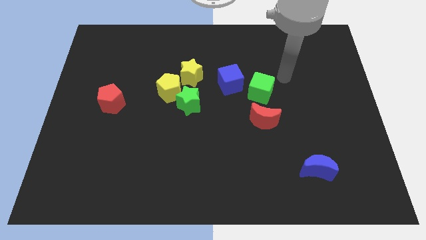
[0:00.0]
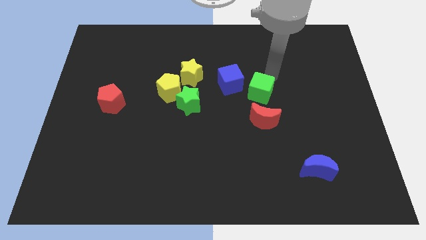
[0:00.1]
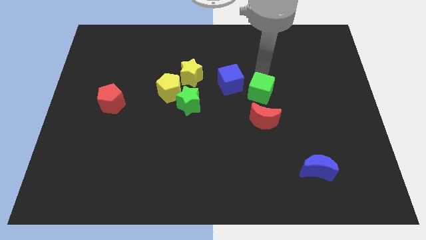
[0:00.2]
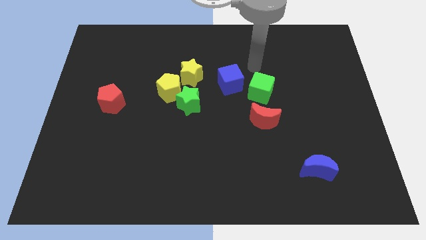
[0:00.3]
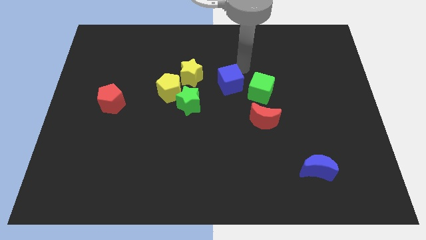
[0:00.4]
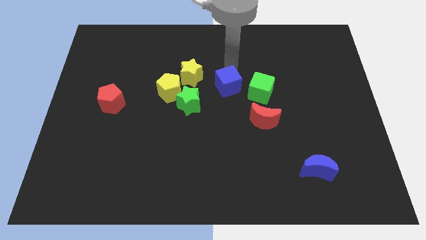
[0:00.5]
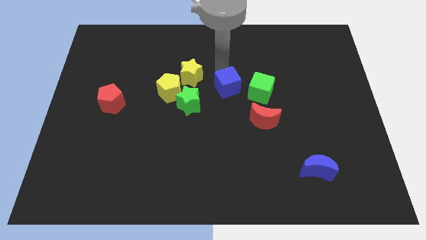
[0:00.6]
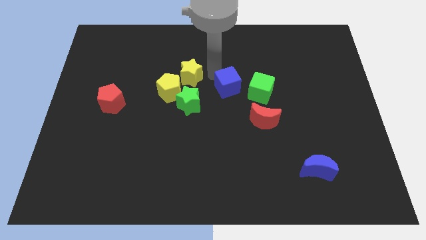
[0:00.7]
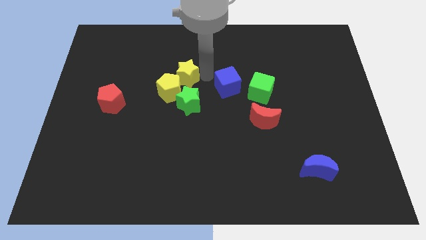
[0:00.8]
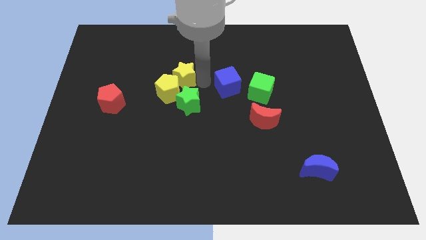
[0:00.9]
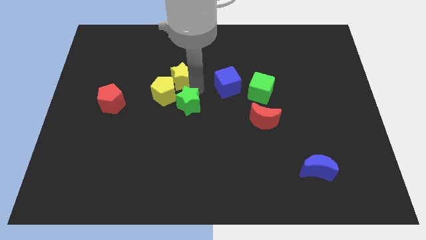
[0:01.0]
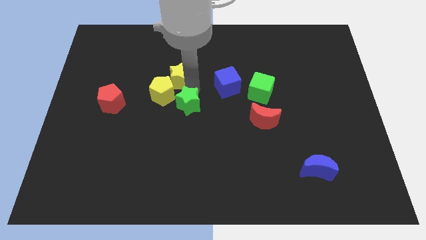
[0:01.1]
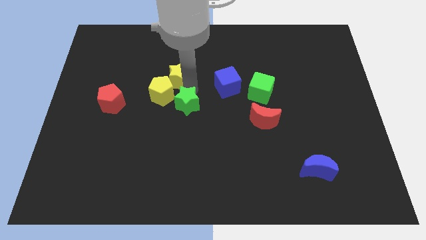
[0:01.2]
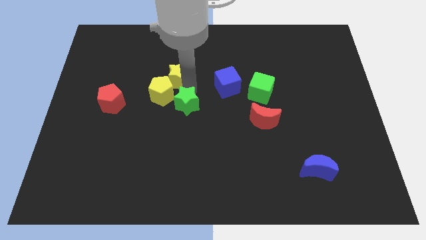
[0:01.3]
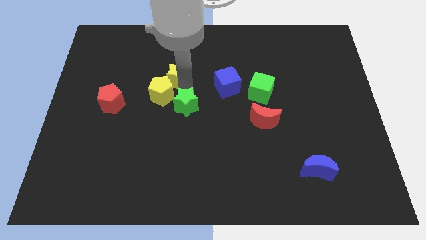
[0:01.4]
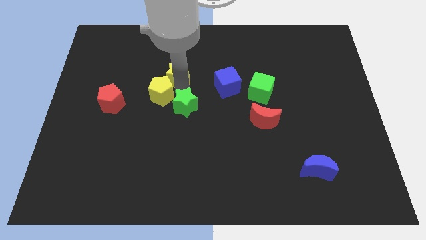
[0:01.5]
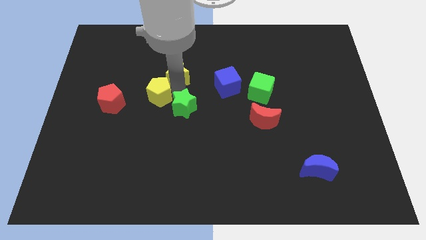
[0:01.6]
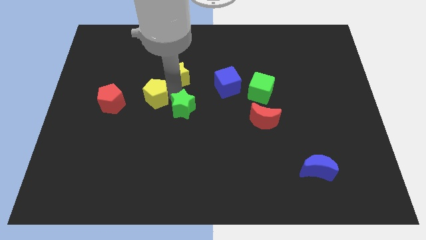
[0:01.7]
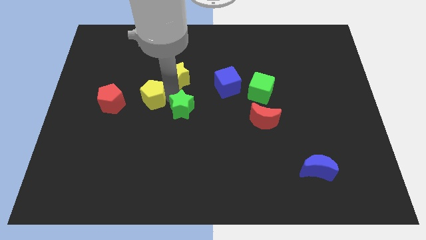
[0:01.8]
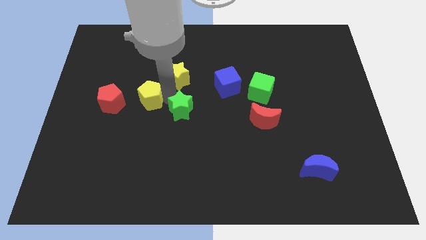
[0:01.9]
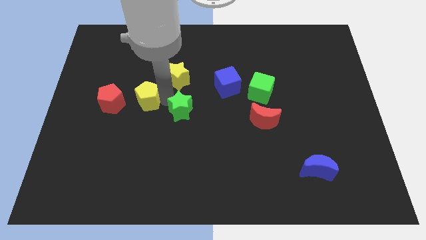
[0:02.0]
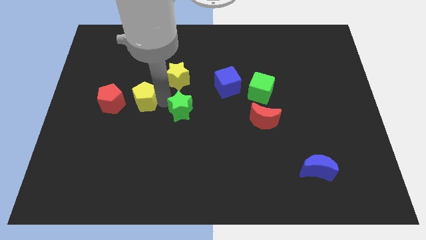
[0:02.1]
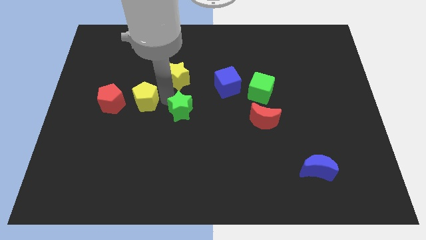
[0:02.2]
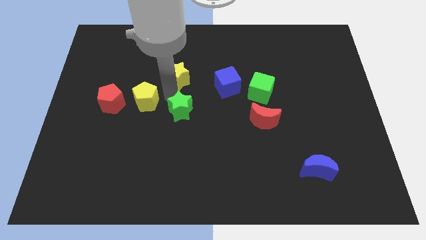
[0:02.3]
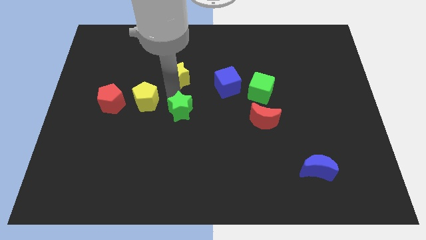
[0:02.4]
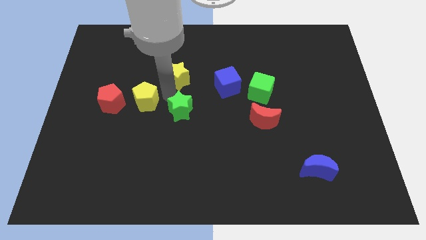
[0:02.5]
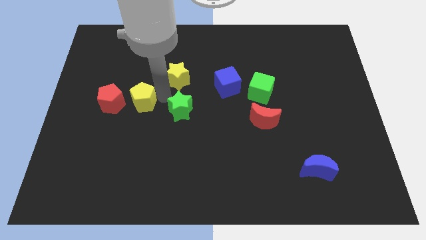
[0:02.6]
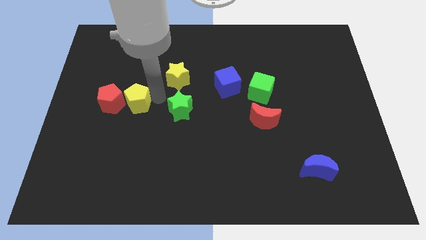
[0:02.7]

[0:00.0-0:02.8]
pull the yellow pentagon apart from the green star and yellow star

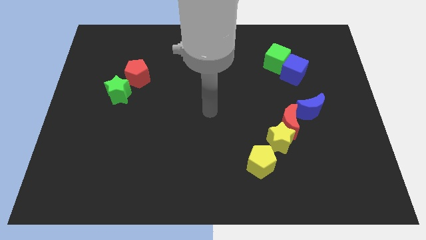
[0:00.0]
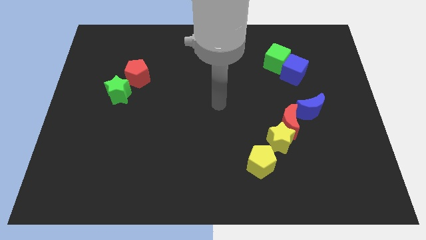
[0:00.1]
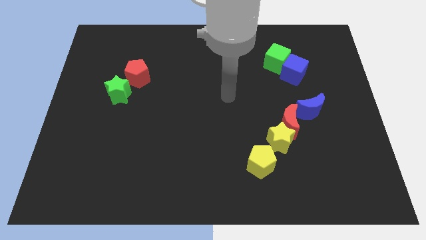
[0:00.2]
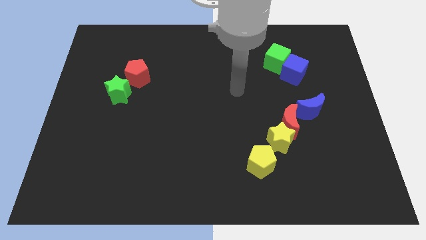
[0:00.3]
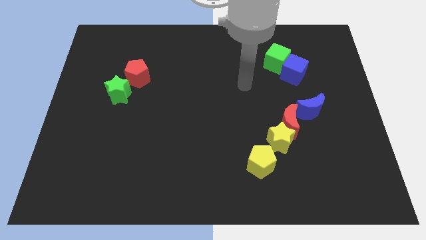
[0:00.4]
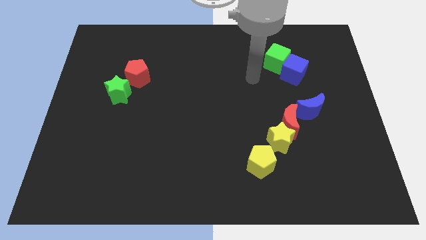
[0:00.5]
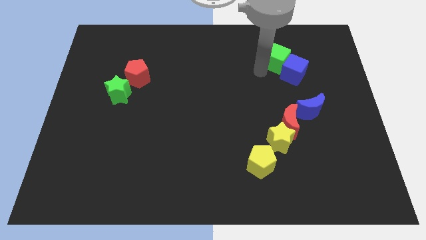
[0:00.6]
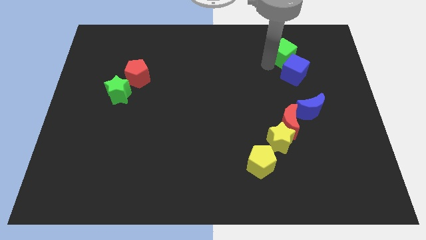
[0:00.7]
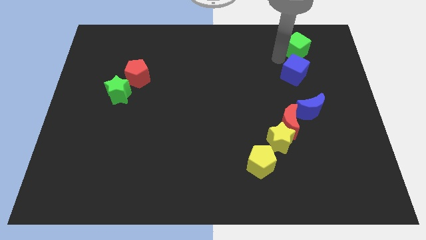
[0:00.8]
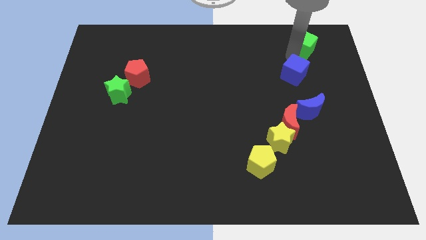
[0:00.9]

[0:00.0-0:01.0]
separate the blue cube from the green cube

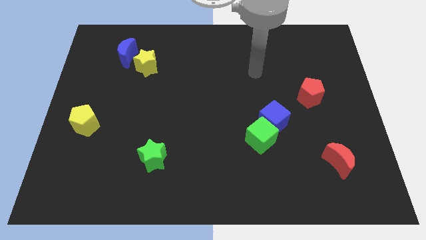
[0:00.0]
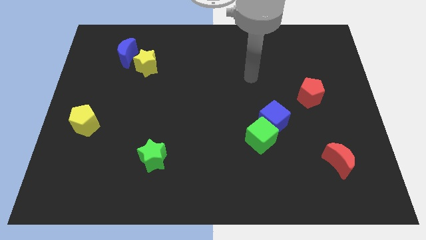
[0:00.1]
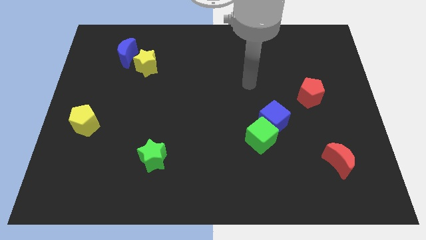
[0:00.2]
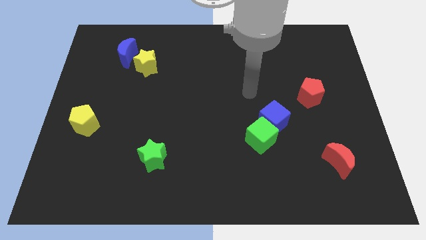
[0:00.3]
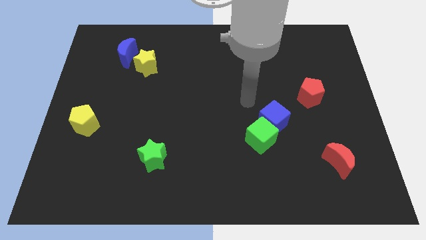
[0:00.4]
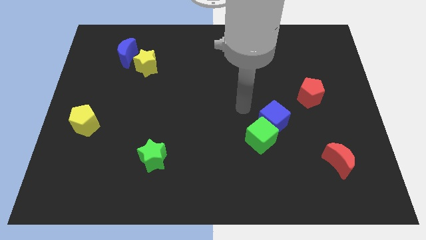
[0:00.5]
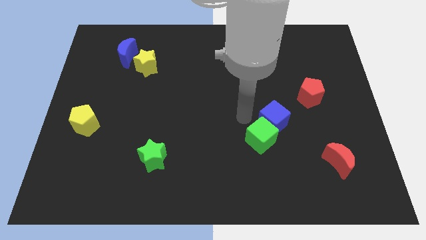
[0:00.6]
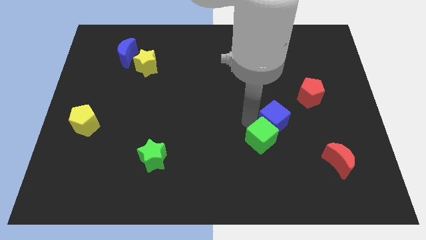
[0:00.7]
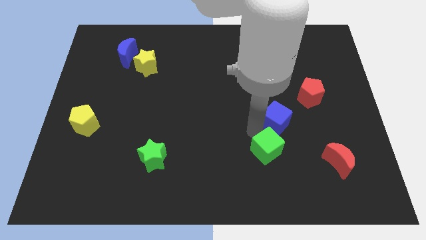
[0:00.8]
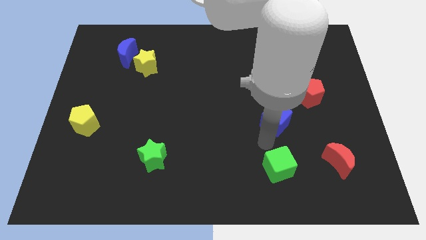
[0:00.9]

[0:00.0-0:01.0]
pull the blue cube apart from the green cube

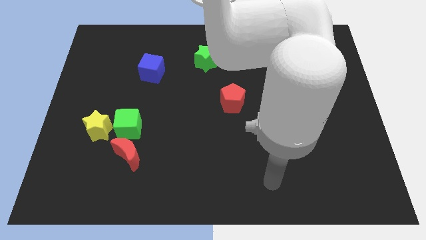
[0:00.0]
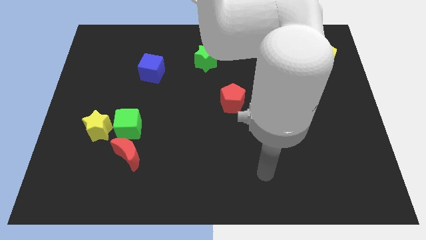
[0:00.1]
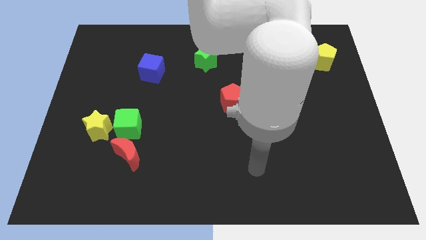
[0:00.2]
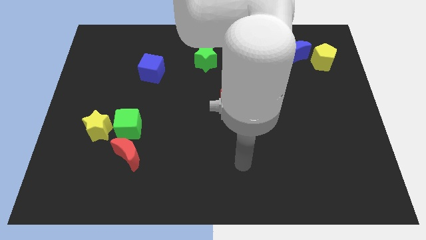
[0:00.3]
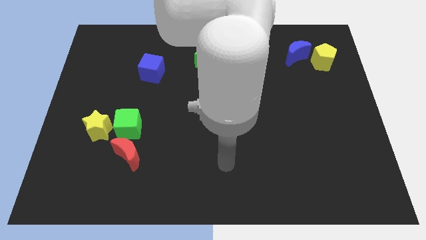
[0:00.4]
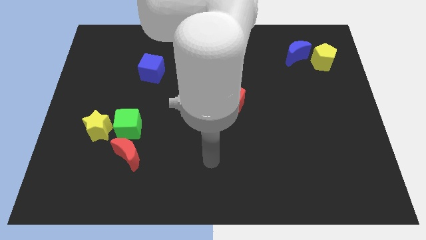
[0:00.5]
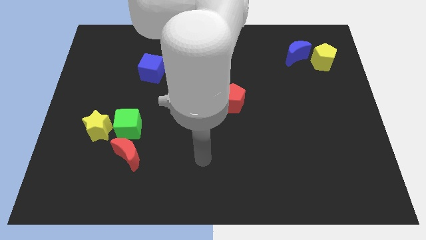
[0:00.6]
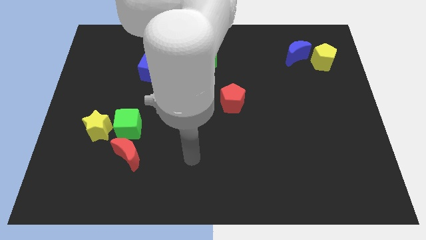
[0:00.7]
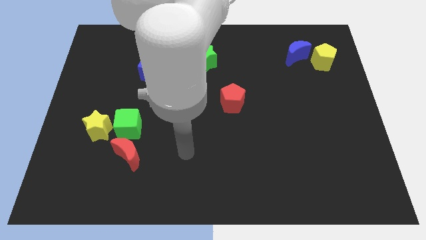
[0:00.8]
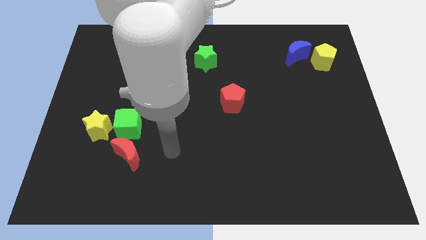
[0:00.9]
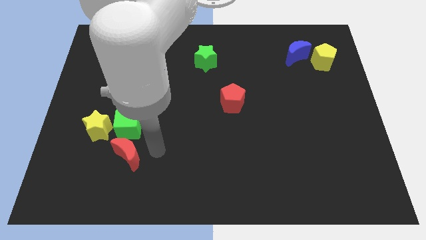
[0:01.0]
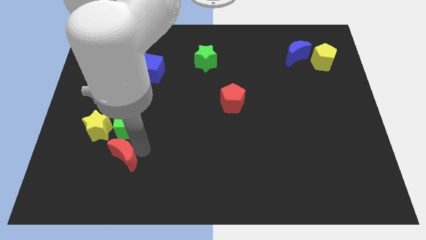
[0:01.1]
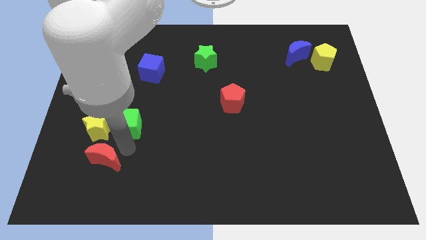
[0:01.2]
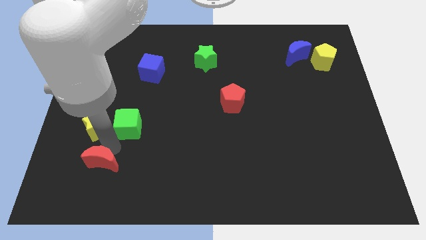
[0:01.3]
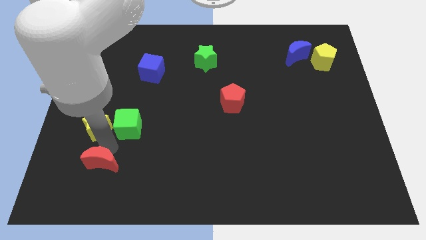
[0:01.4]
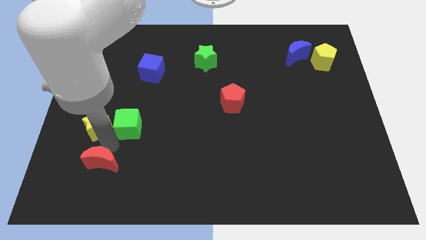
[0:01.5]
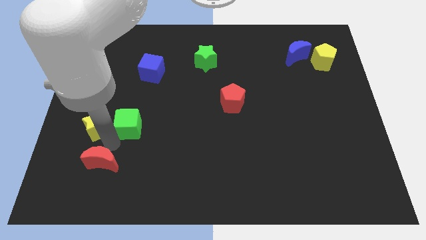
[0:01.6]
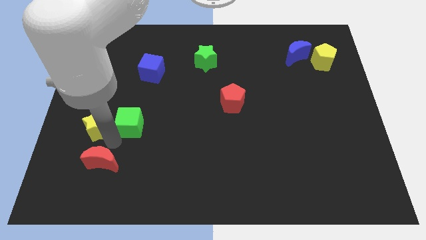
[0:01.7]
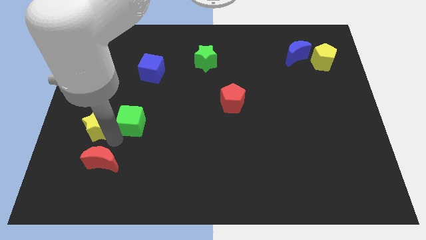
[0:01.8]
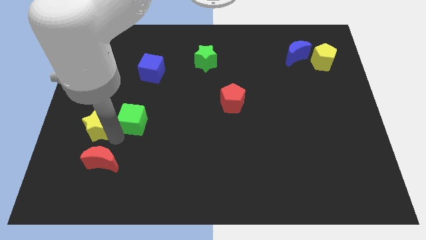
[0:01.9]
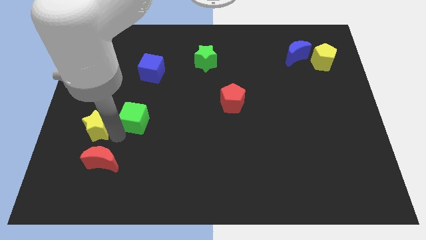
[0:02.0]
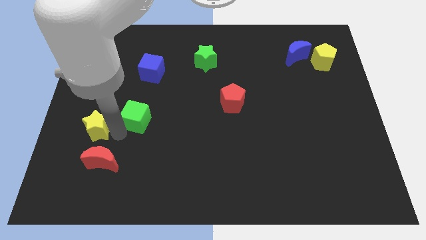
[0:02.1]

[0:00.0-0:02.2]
separate the green cube from the yellow star and red moon

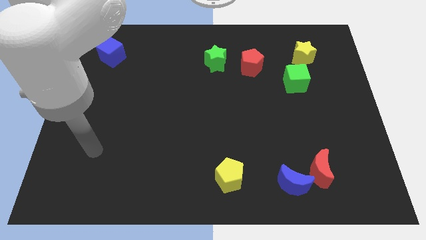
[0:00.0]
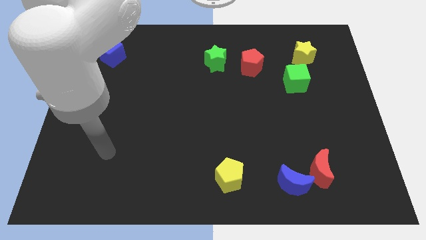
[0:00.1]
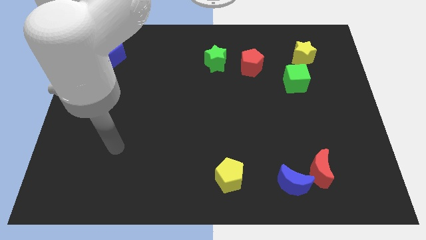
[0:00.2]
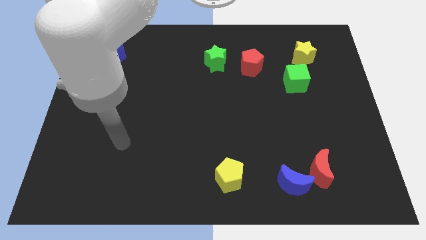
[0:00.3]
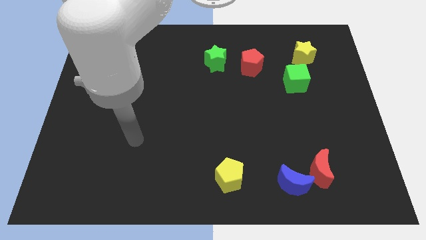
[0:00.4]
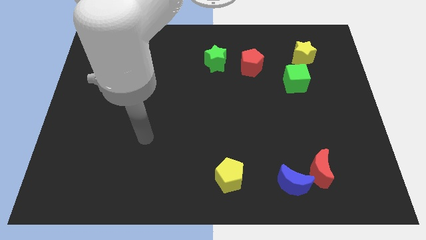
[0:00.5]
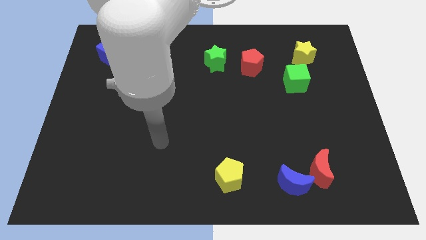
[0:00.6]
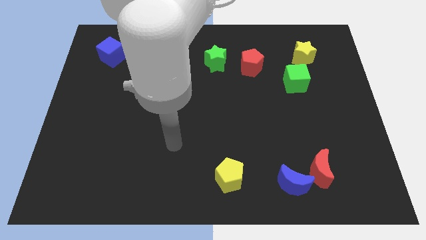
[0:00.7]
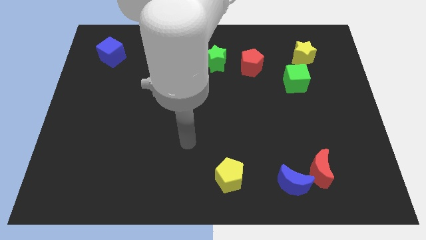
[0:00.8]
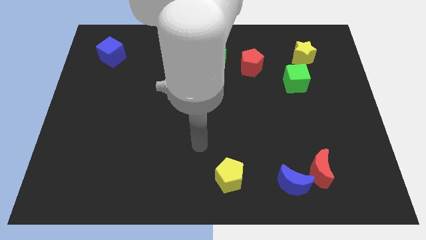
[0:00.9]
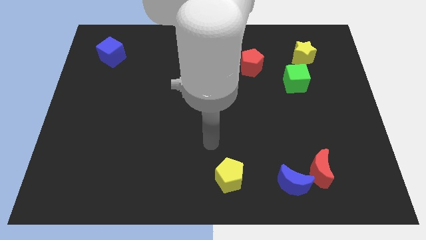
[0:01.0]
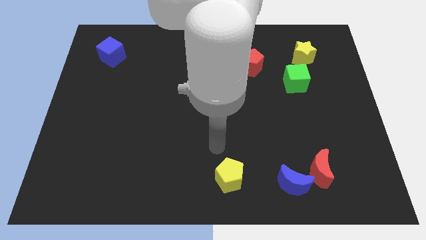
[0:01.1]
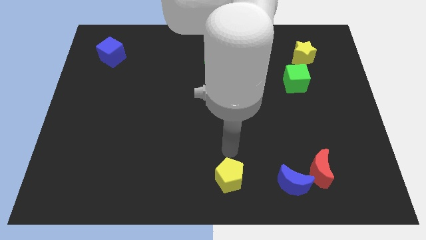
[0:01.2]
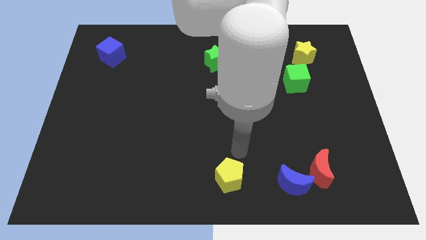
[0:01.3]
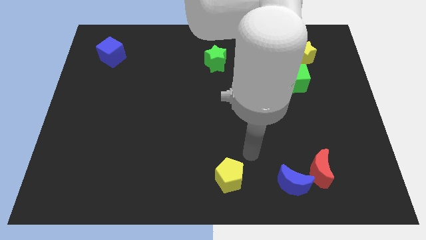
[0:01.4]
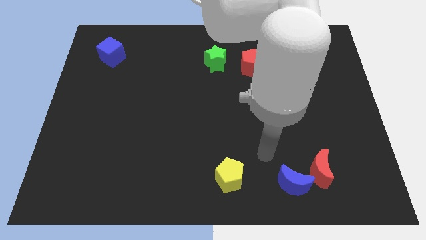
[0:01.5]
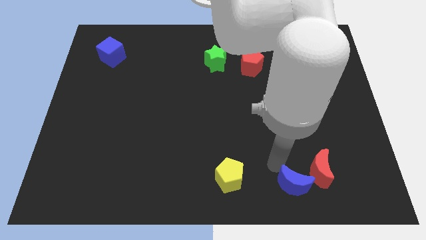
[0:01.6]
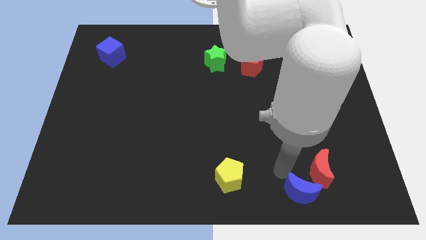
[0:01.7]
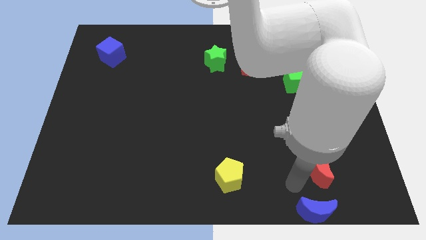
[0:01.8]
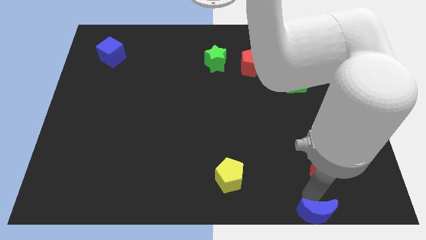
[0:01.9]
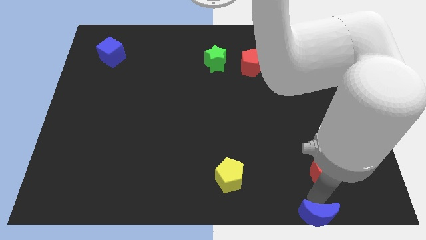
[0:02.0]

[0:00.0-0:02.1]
pull the red moon apart from the blue moon

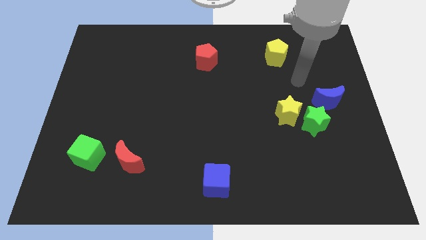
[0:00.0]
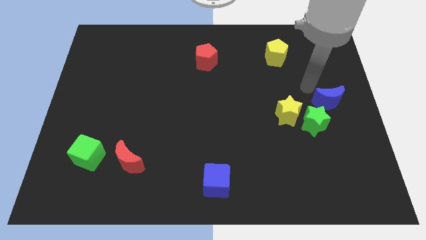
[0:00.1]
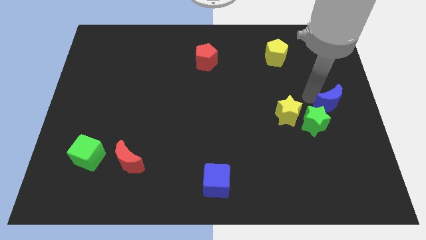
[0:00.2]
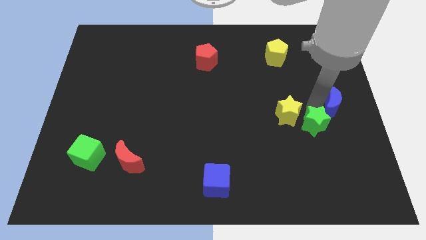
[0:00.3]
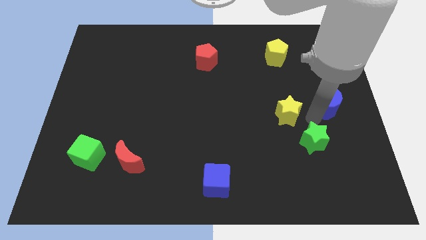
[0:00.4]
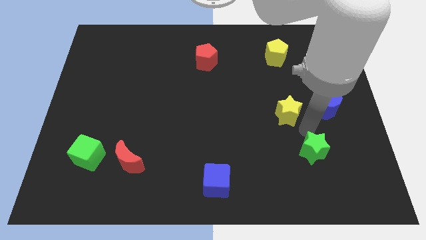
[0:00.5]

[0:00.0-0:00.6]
move the yellow star away from the green star
